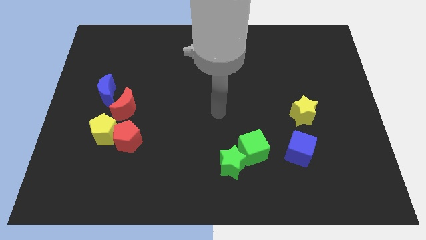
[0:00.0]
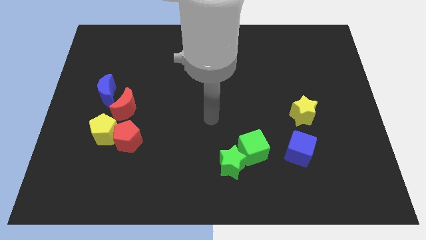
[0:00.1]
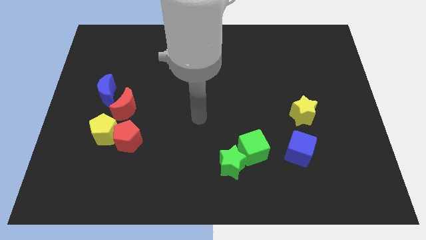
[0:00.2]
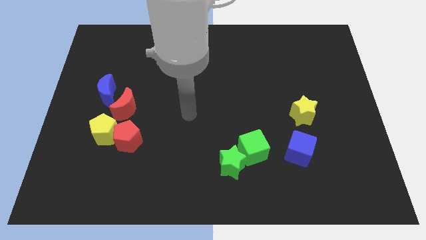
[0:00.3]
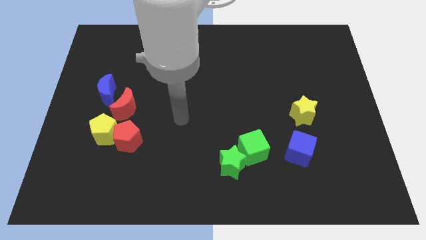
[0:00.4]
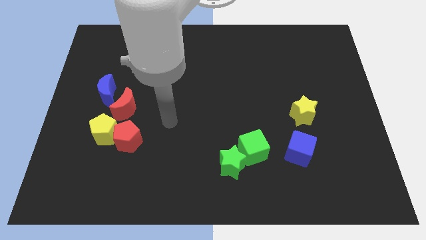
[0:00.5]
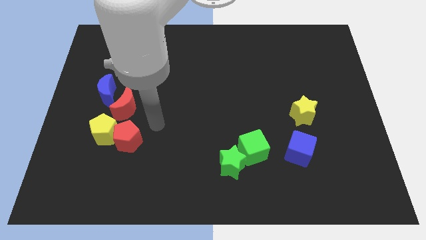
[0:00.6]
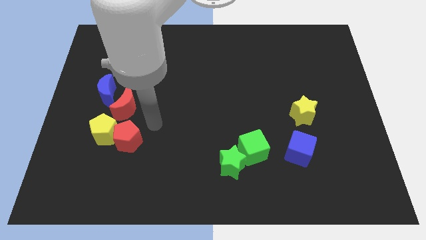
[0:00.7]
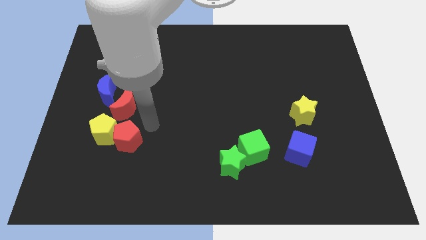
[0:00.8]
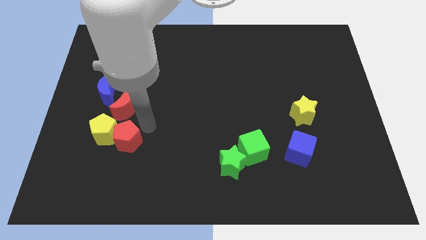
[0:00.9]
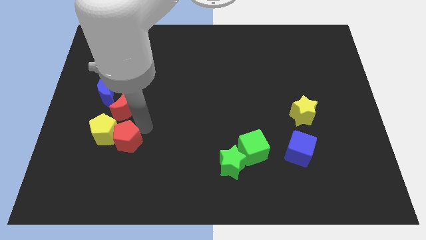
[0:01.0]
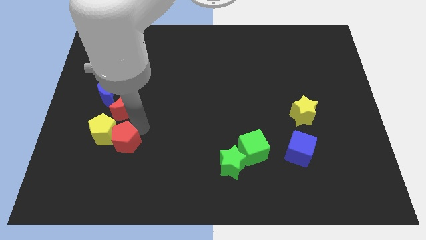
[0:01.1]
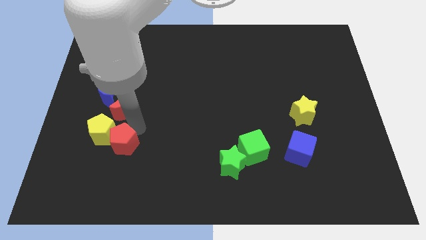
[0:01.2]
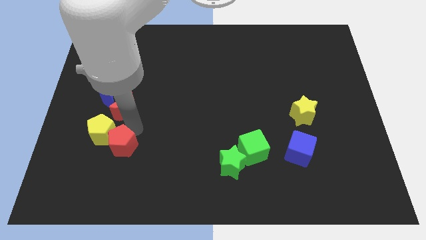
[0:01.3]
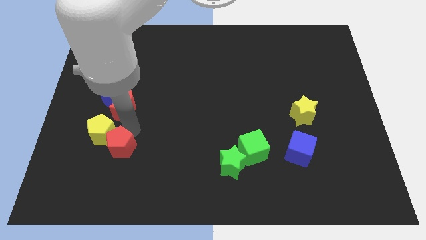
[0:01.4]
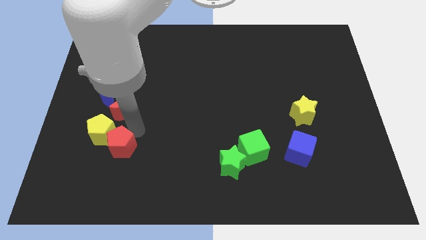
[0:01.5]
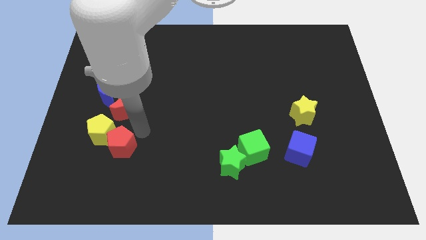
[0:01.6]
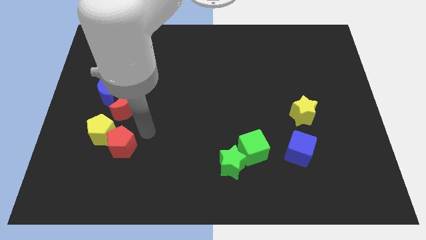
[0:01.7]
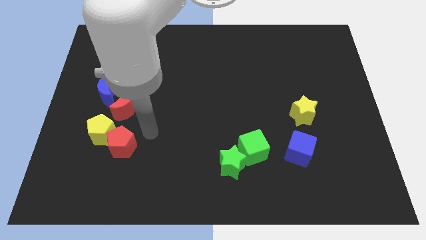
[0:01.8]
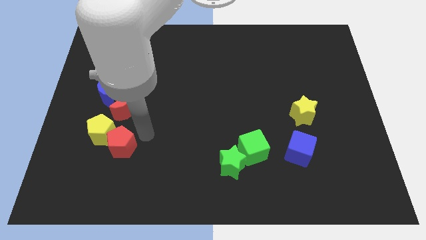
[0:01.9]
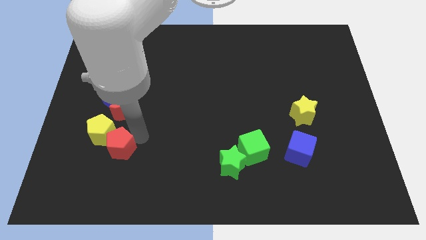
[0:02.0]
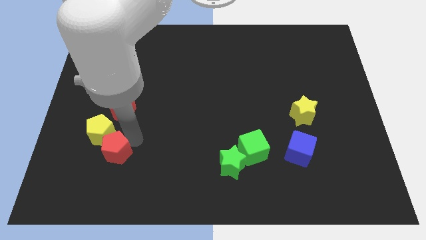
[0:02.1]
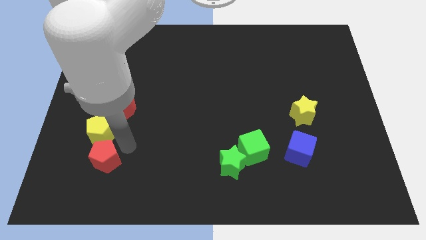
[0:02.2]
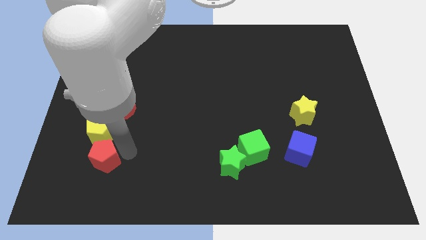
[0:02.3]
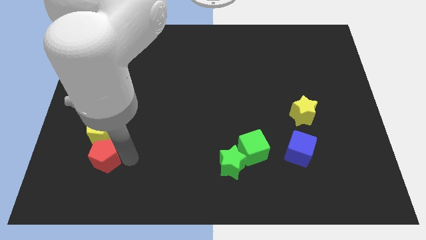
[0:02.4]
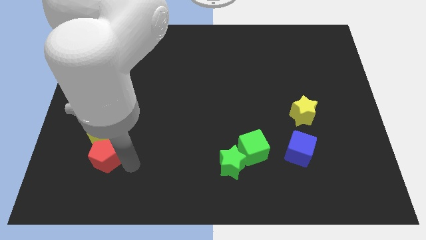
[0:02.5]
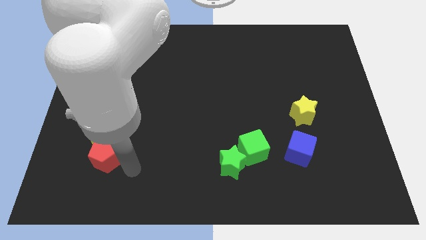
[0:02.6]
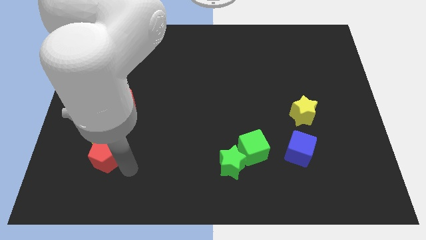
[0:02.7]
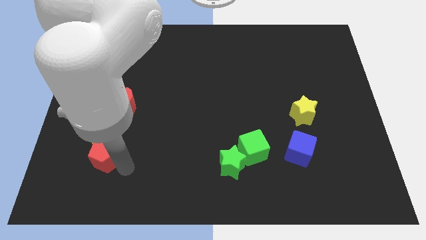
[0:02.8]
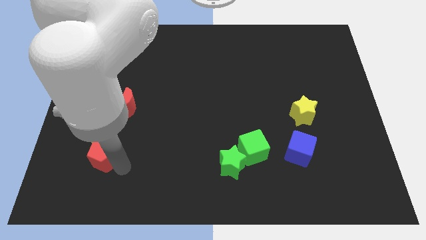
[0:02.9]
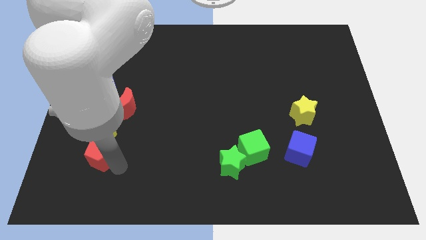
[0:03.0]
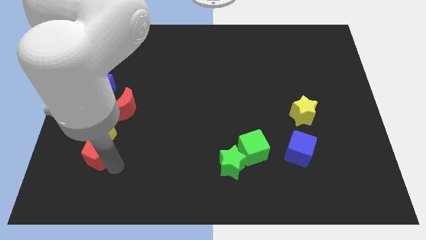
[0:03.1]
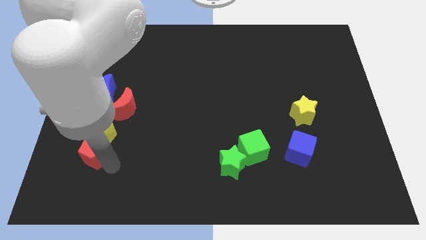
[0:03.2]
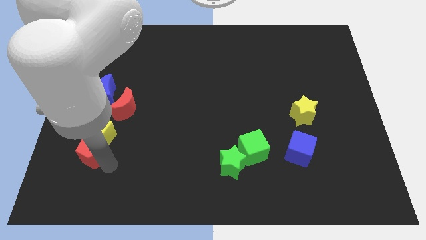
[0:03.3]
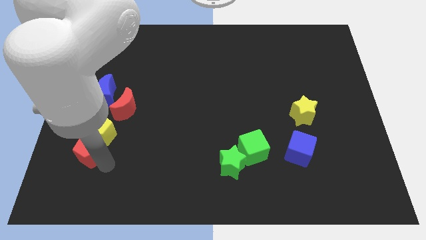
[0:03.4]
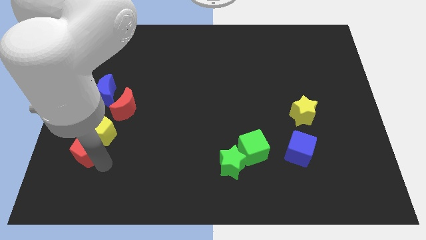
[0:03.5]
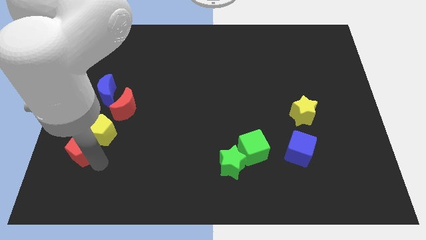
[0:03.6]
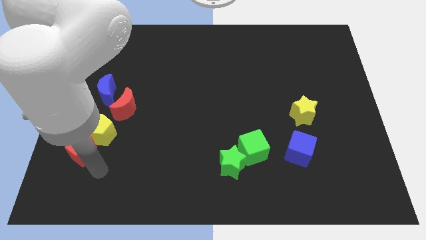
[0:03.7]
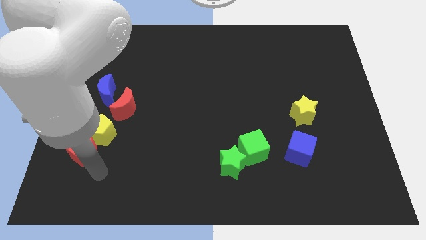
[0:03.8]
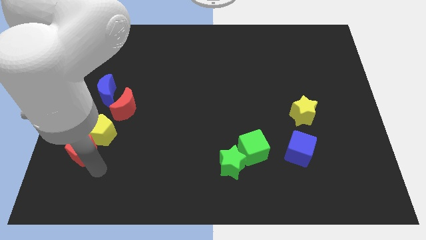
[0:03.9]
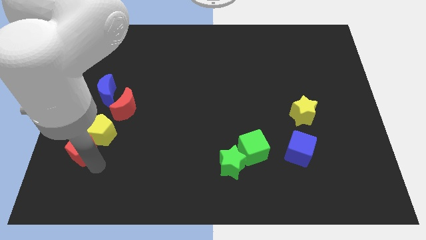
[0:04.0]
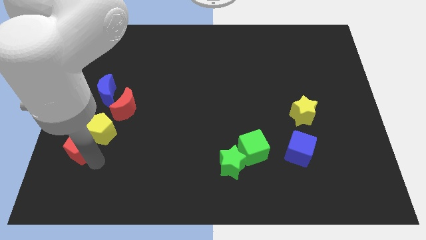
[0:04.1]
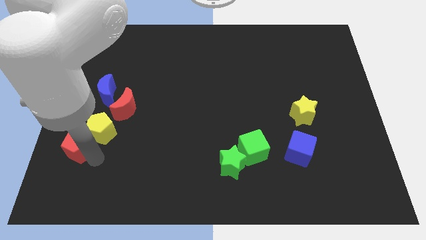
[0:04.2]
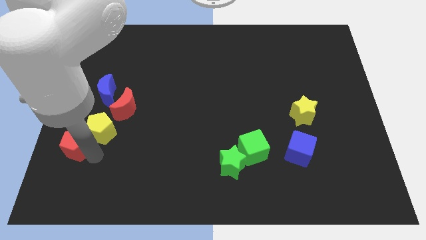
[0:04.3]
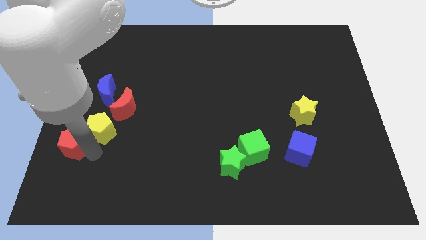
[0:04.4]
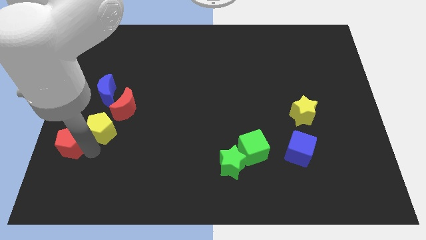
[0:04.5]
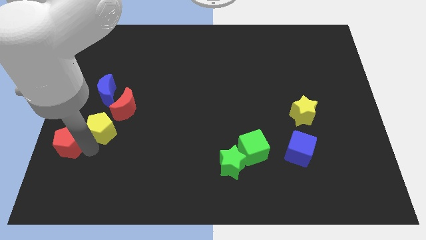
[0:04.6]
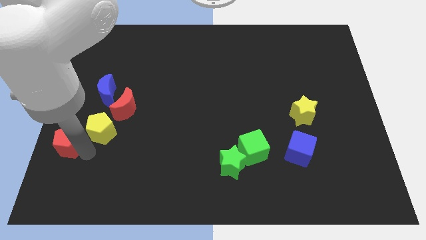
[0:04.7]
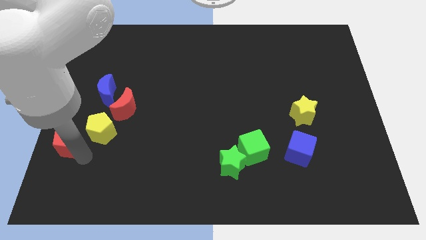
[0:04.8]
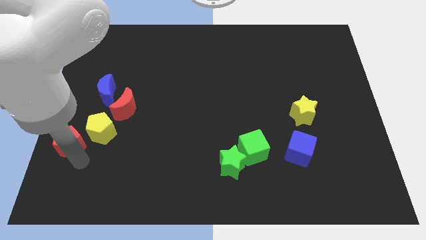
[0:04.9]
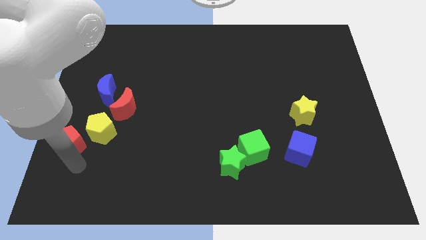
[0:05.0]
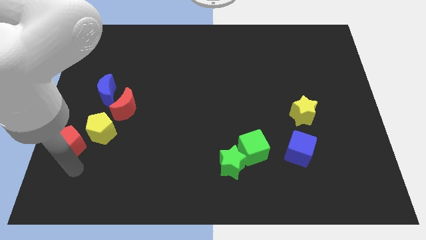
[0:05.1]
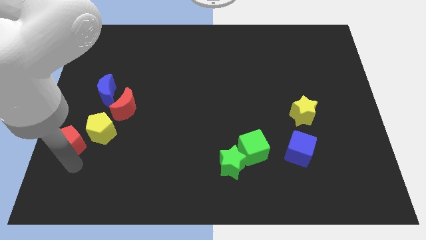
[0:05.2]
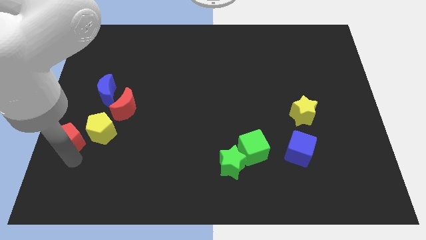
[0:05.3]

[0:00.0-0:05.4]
push the red pentagon to the left side

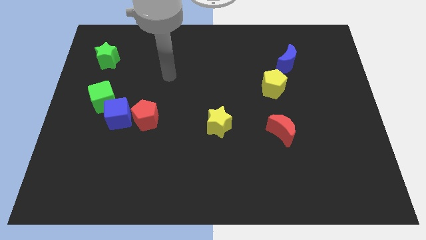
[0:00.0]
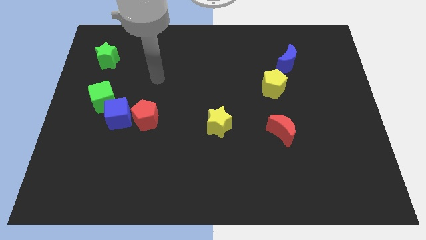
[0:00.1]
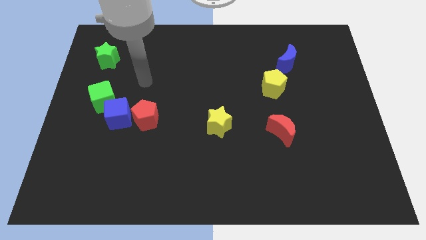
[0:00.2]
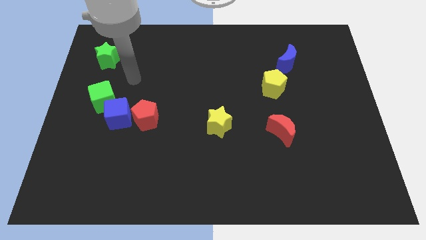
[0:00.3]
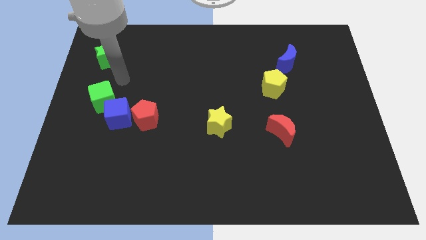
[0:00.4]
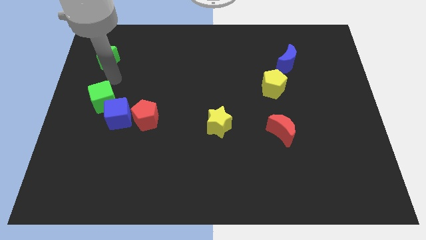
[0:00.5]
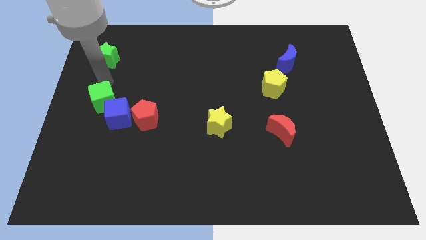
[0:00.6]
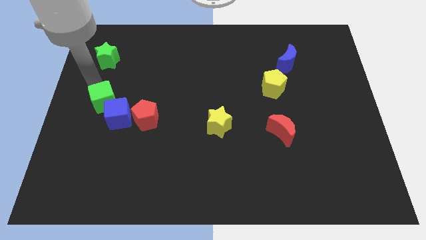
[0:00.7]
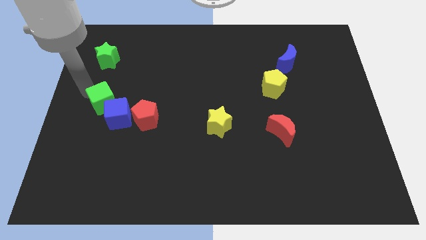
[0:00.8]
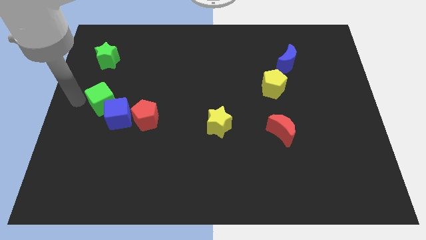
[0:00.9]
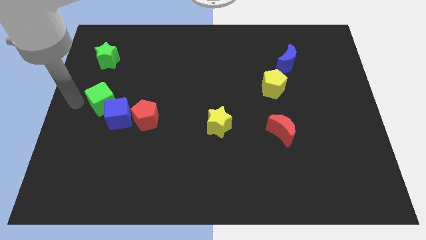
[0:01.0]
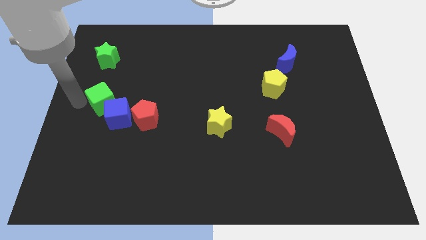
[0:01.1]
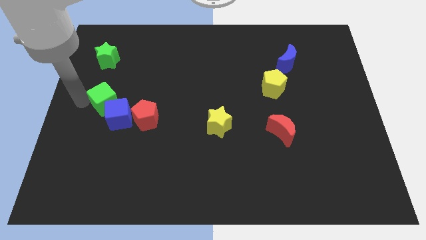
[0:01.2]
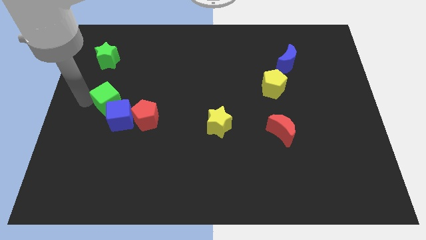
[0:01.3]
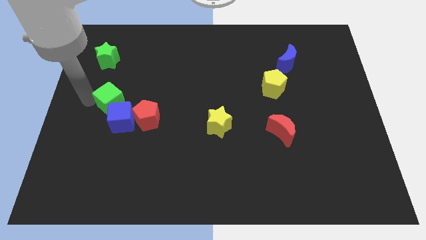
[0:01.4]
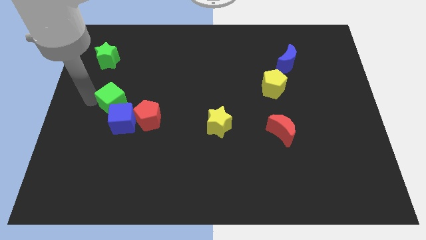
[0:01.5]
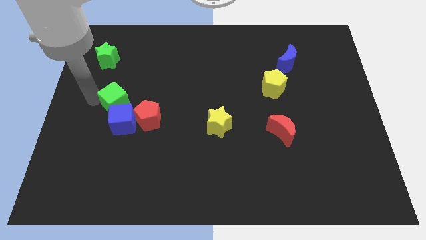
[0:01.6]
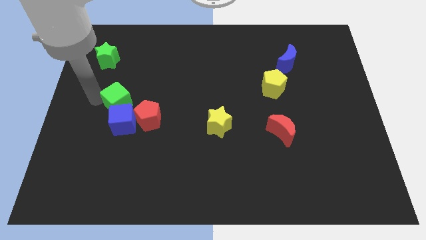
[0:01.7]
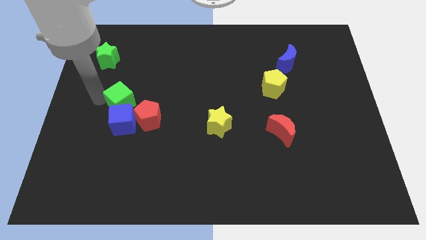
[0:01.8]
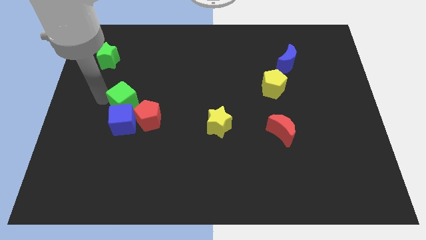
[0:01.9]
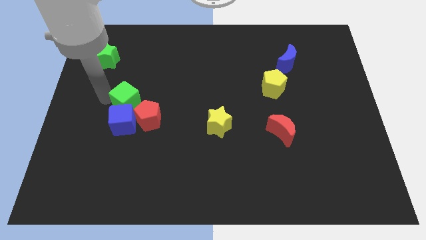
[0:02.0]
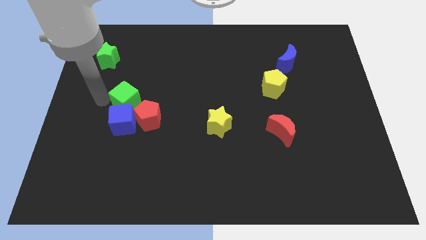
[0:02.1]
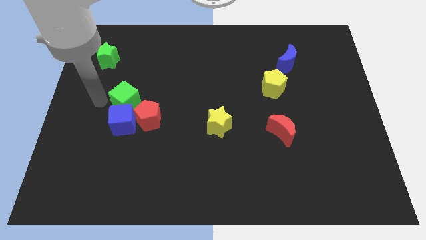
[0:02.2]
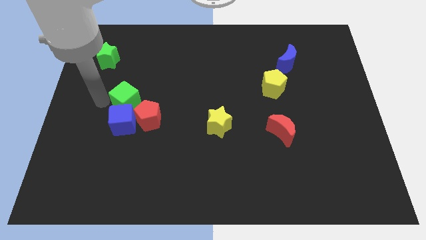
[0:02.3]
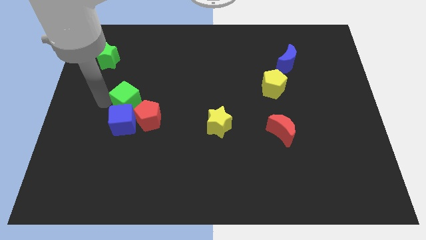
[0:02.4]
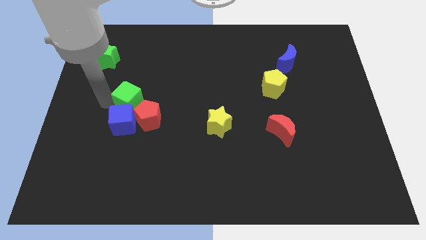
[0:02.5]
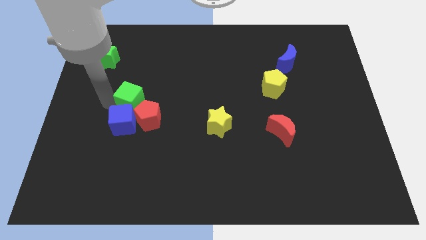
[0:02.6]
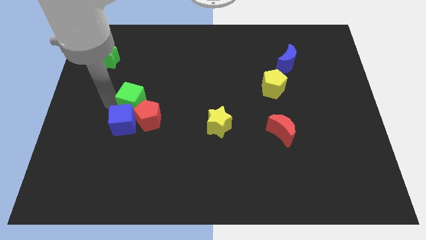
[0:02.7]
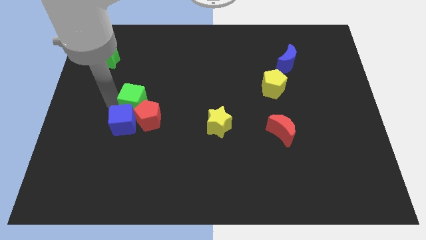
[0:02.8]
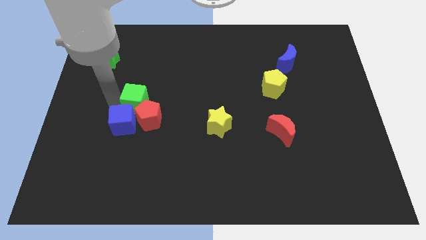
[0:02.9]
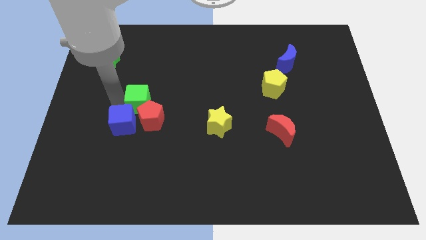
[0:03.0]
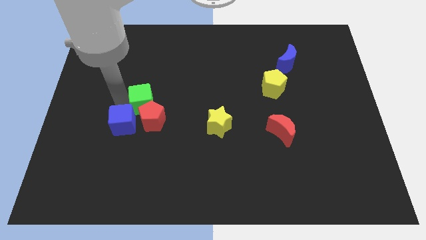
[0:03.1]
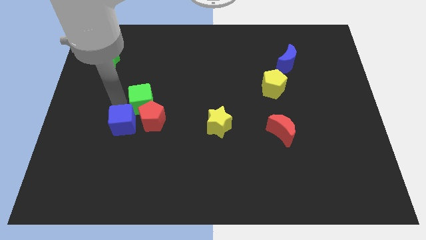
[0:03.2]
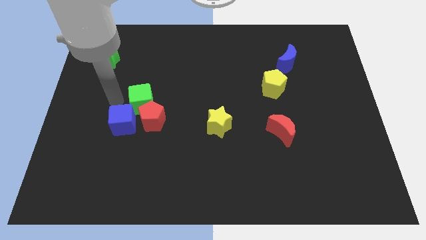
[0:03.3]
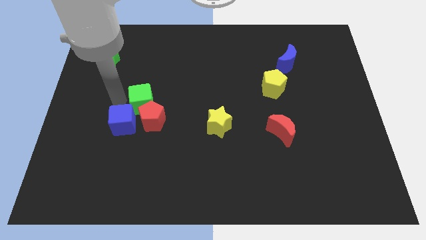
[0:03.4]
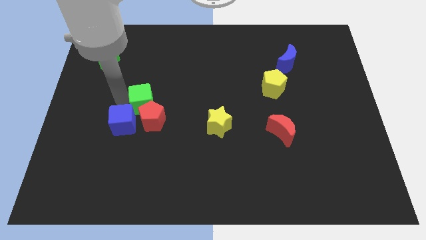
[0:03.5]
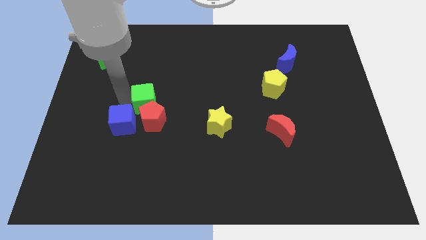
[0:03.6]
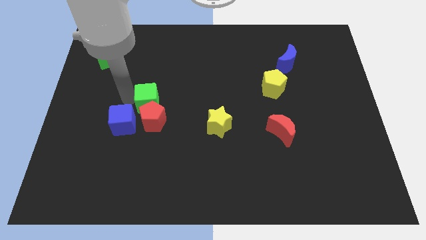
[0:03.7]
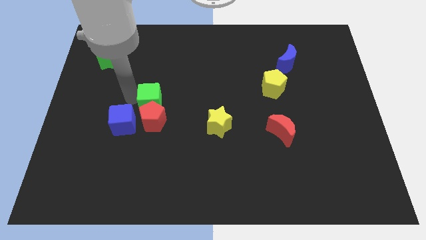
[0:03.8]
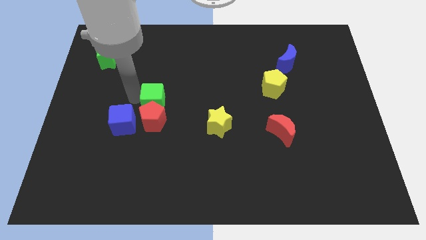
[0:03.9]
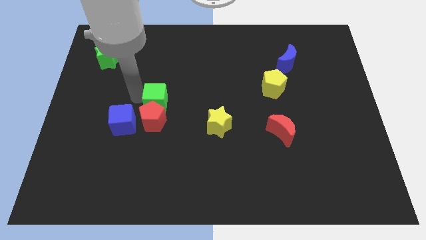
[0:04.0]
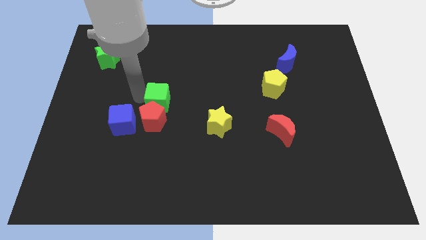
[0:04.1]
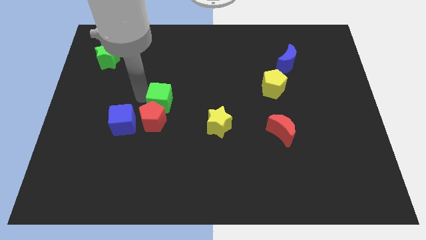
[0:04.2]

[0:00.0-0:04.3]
move the green cube to the middle of the board
